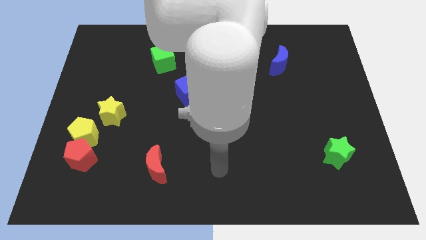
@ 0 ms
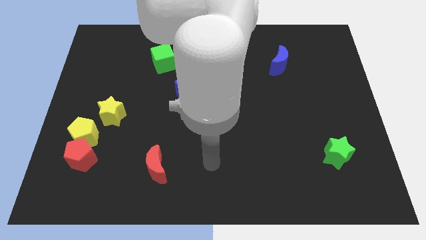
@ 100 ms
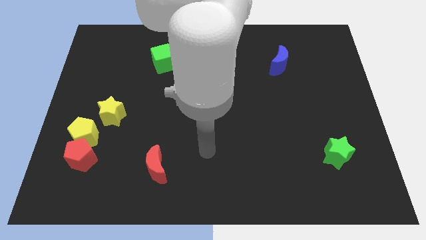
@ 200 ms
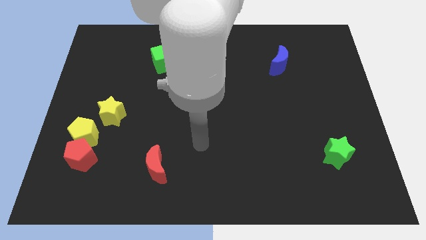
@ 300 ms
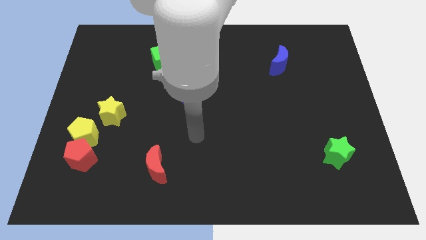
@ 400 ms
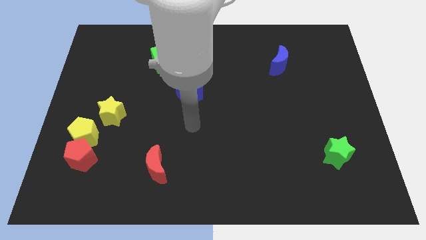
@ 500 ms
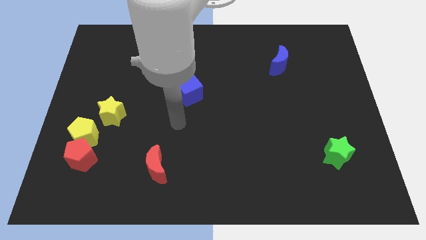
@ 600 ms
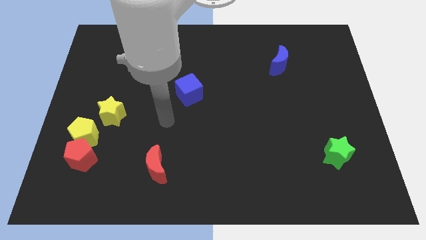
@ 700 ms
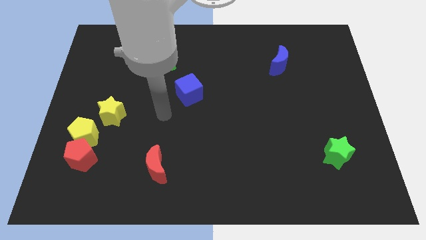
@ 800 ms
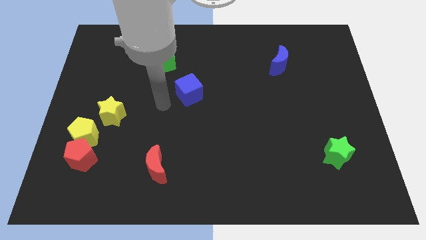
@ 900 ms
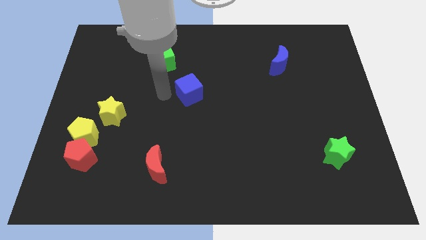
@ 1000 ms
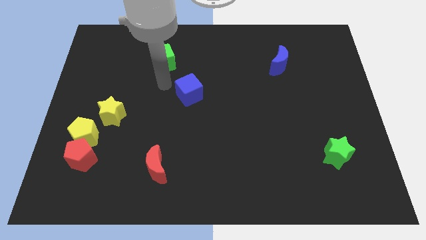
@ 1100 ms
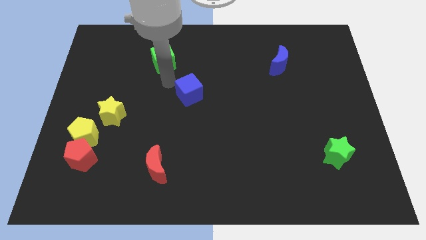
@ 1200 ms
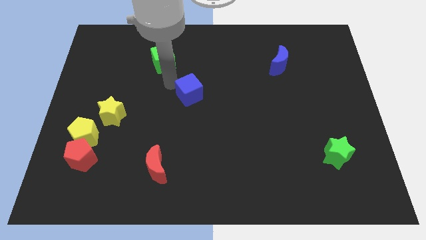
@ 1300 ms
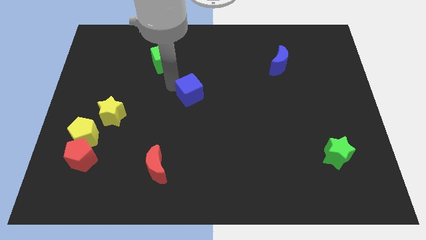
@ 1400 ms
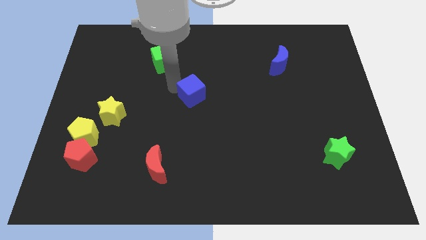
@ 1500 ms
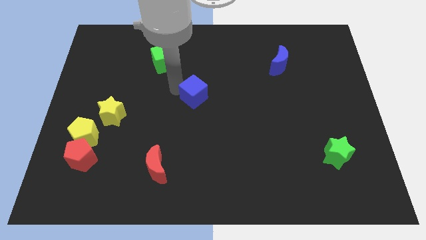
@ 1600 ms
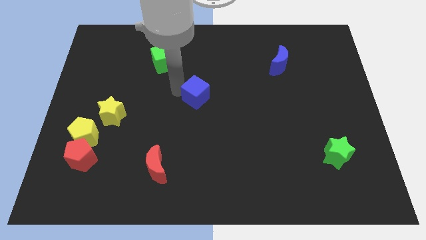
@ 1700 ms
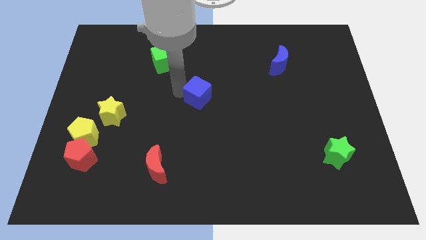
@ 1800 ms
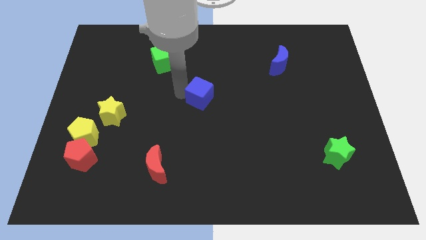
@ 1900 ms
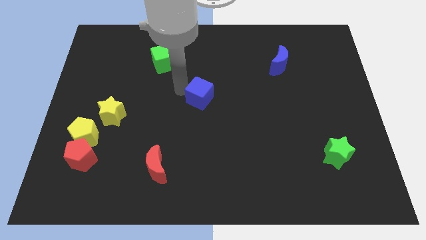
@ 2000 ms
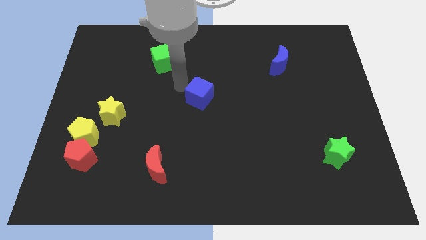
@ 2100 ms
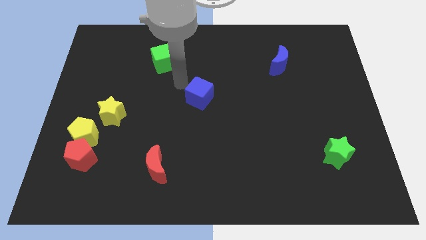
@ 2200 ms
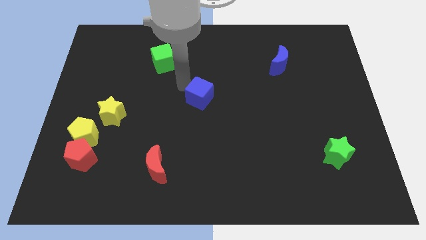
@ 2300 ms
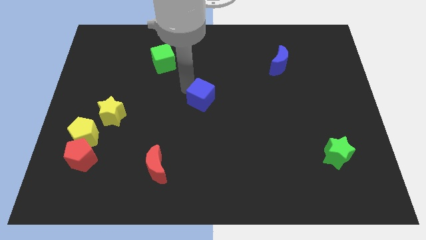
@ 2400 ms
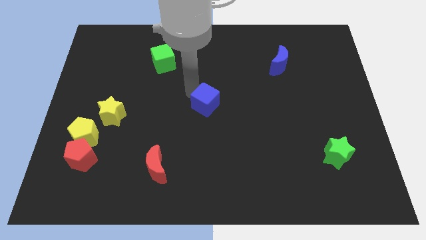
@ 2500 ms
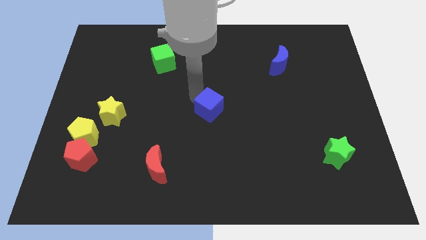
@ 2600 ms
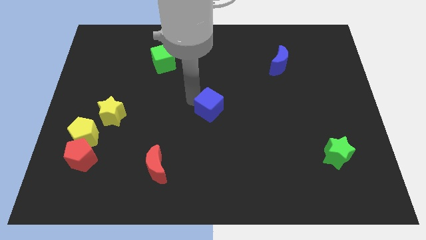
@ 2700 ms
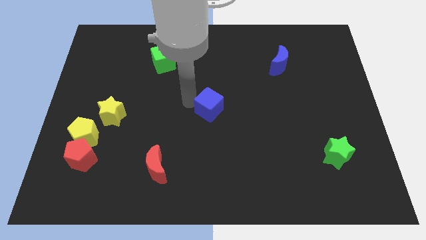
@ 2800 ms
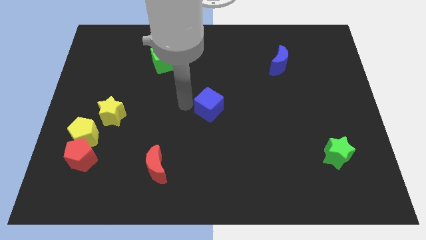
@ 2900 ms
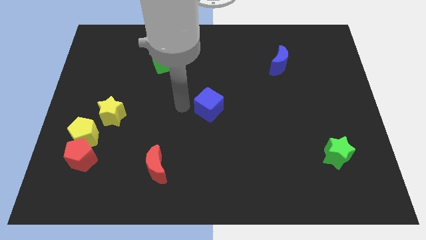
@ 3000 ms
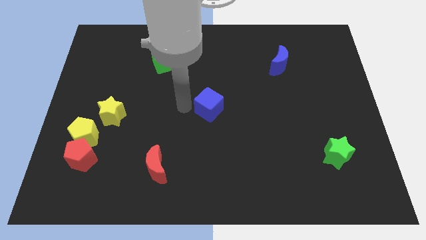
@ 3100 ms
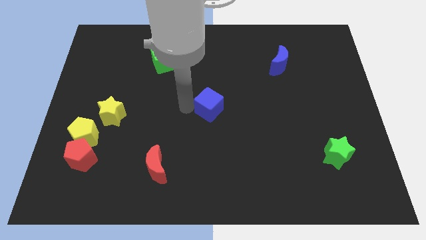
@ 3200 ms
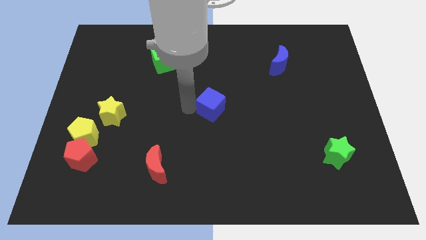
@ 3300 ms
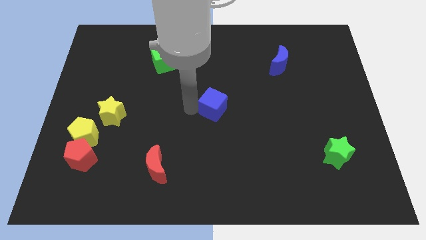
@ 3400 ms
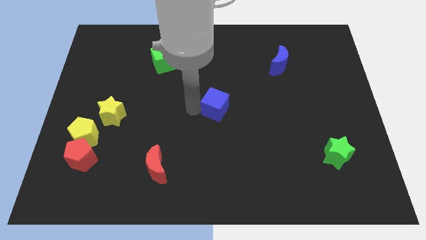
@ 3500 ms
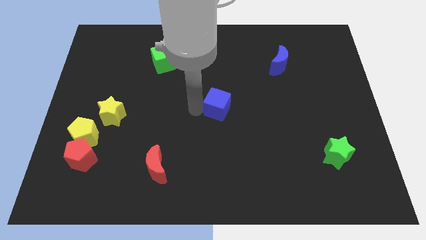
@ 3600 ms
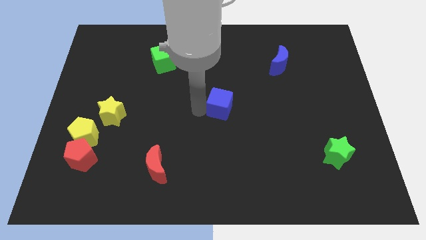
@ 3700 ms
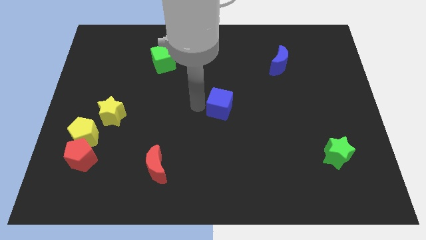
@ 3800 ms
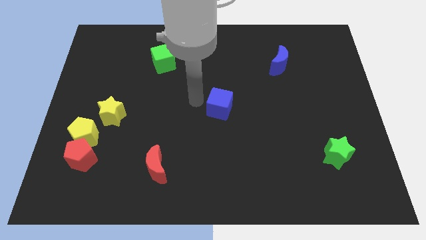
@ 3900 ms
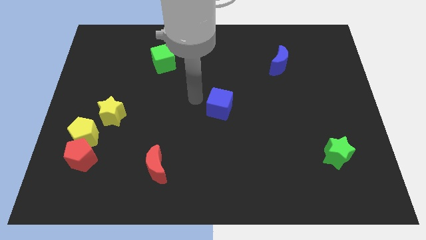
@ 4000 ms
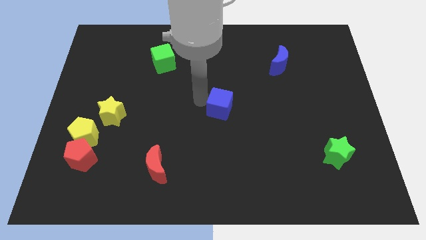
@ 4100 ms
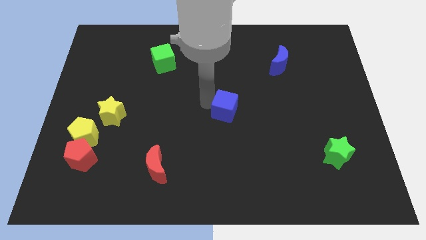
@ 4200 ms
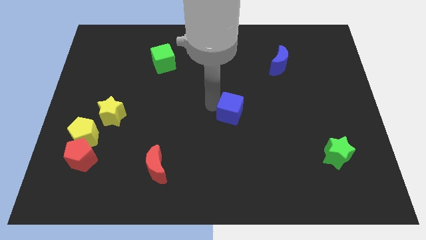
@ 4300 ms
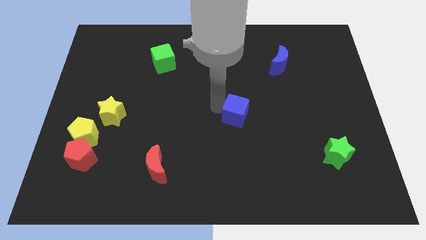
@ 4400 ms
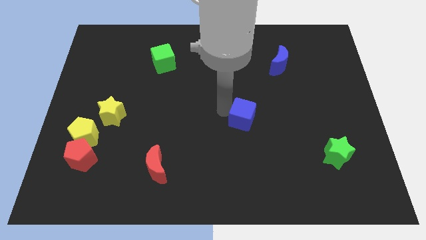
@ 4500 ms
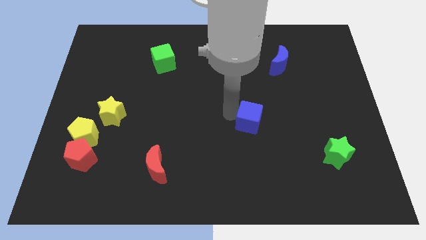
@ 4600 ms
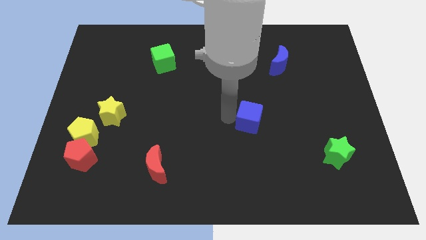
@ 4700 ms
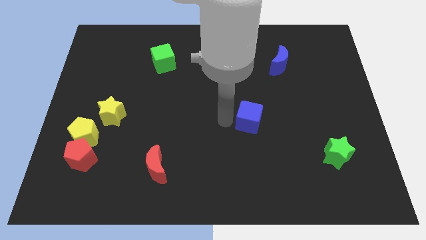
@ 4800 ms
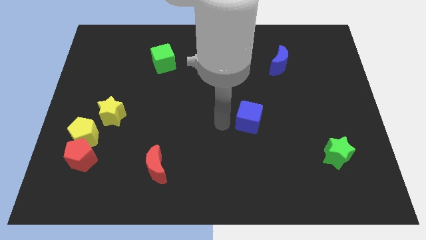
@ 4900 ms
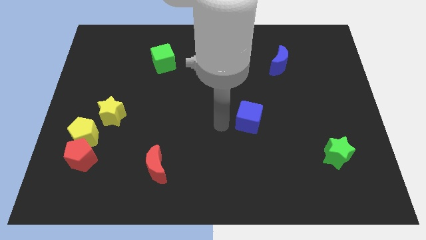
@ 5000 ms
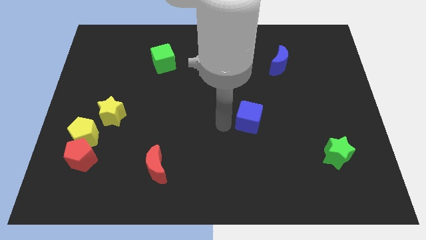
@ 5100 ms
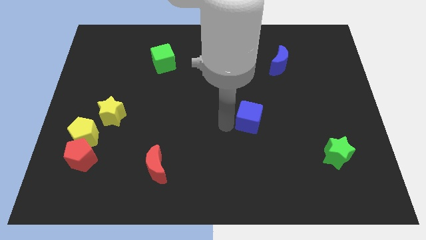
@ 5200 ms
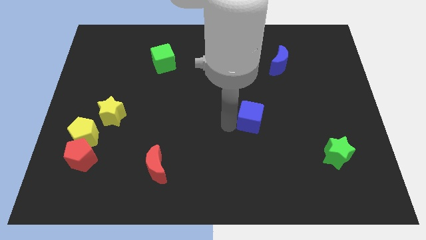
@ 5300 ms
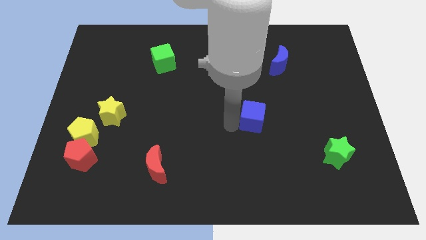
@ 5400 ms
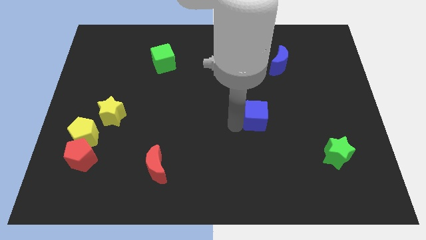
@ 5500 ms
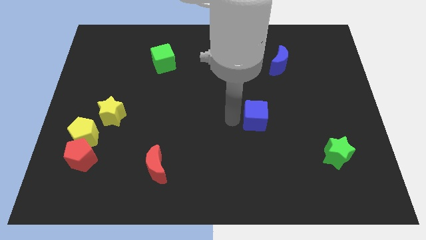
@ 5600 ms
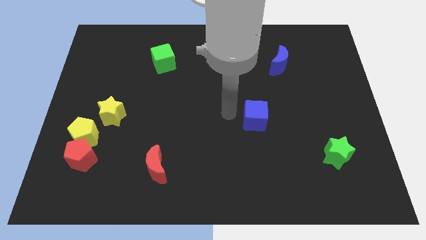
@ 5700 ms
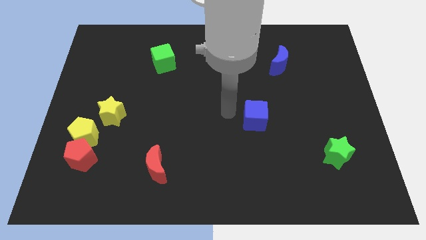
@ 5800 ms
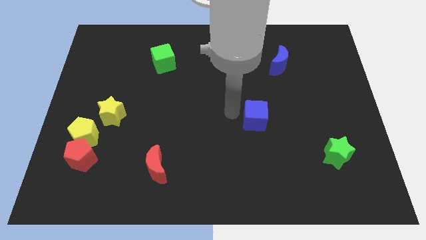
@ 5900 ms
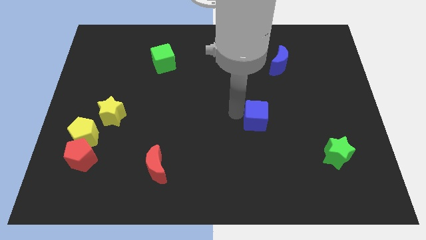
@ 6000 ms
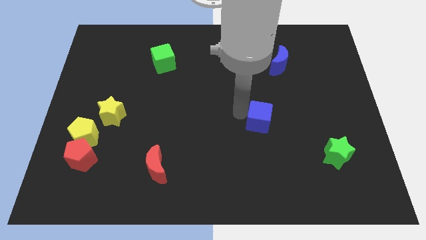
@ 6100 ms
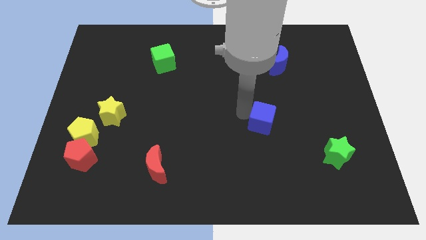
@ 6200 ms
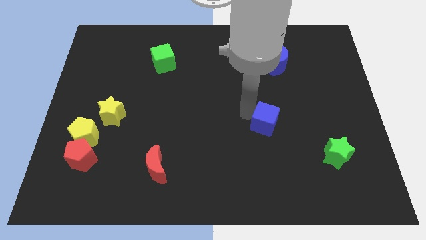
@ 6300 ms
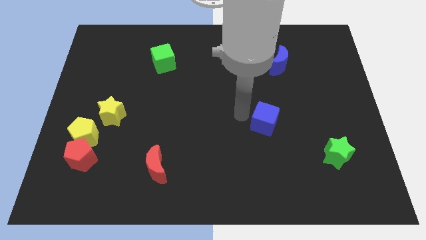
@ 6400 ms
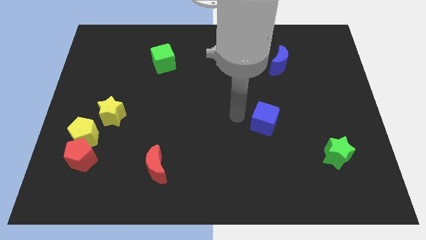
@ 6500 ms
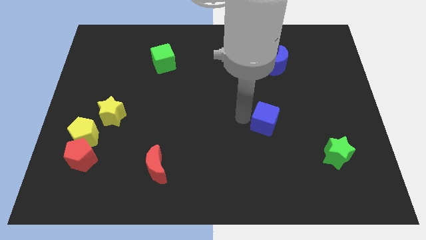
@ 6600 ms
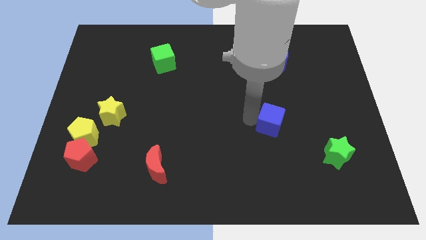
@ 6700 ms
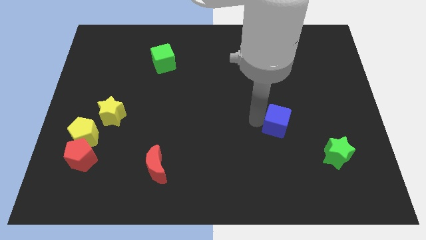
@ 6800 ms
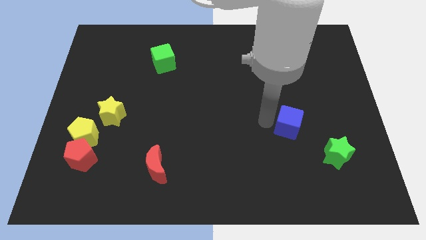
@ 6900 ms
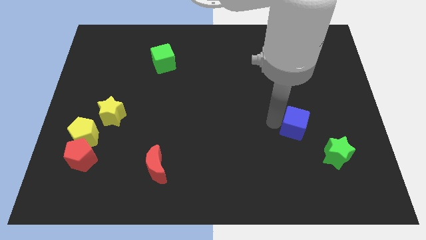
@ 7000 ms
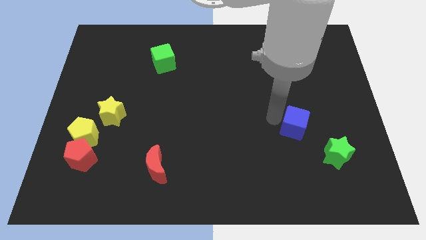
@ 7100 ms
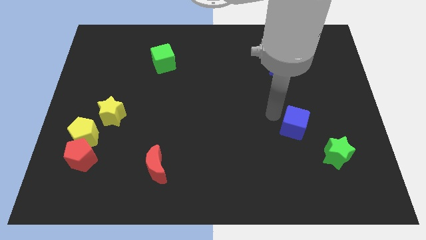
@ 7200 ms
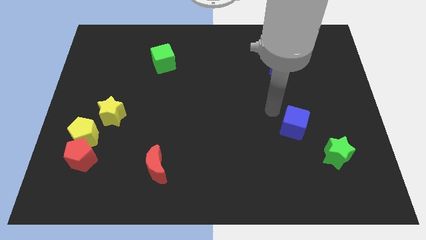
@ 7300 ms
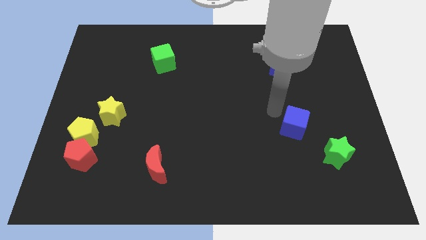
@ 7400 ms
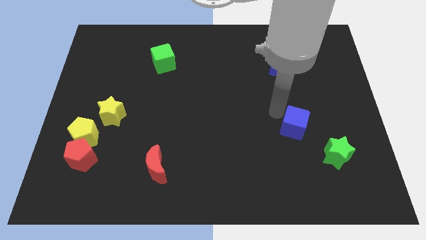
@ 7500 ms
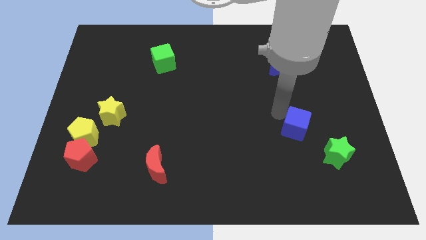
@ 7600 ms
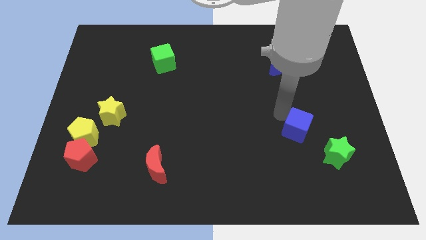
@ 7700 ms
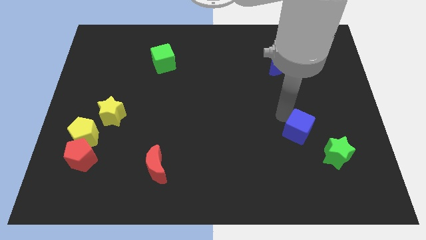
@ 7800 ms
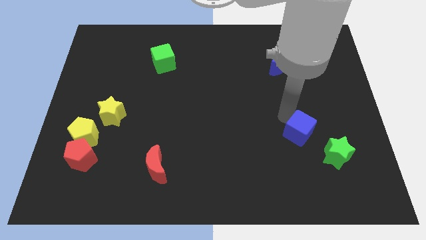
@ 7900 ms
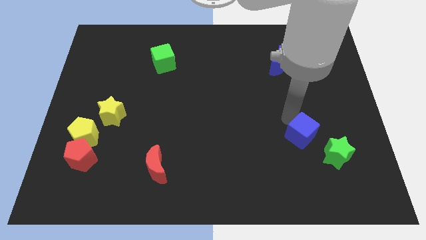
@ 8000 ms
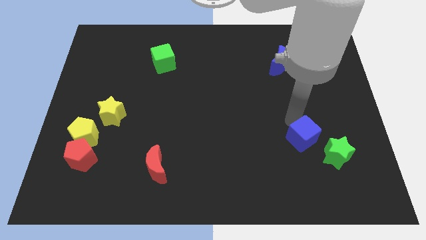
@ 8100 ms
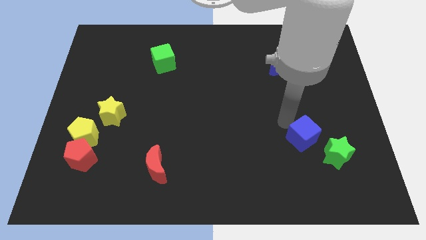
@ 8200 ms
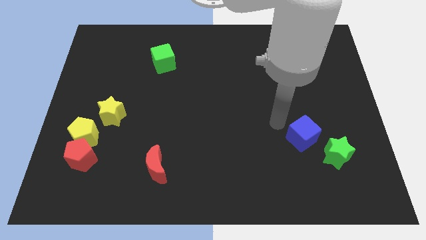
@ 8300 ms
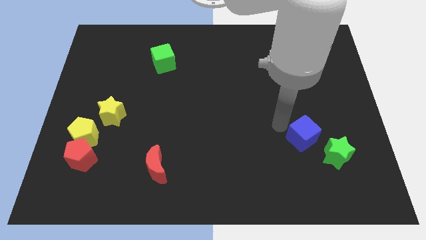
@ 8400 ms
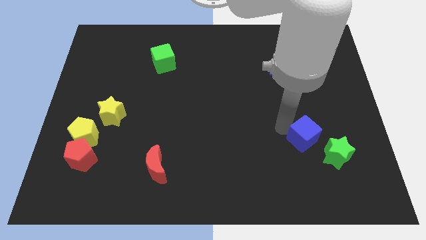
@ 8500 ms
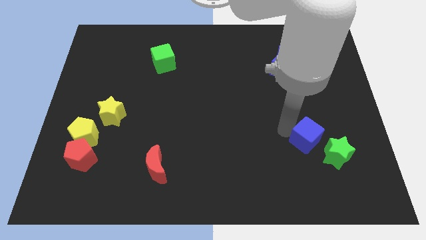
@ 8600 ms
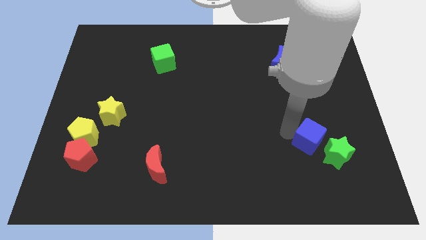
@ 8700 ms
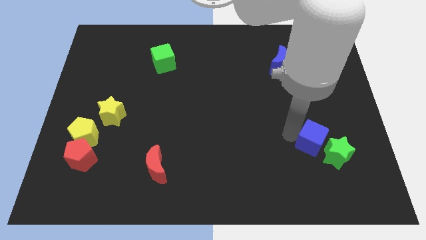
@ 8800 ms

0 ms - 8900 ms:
put the blue cube towards the green star
